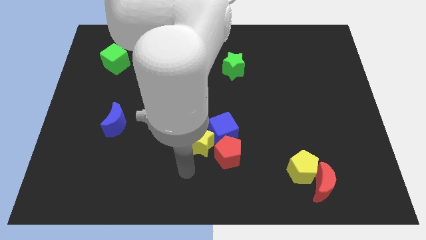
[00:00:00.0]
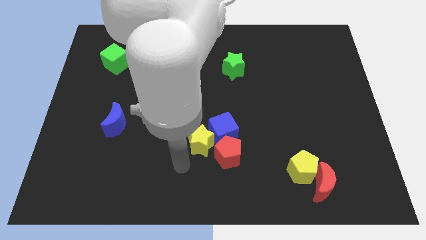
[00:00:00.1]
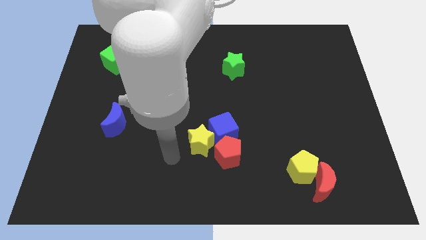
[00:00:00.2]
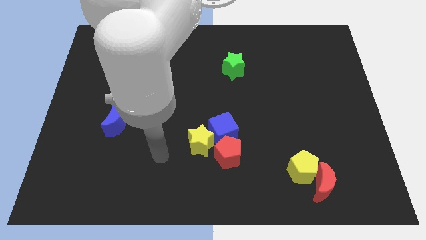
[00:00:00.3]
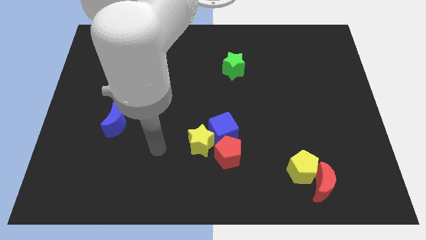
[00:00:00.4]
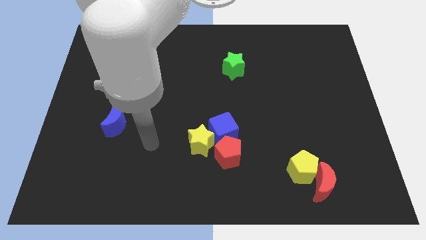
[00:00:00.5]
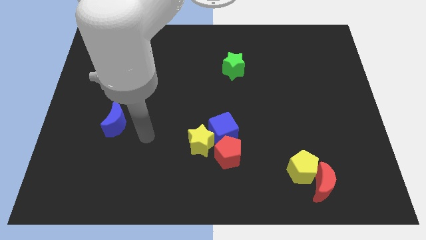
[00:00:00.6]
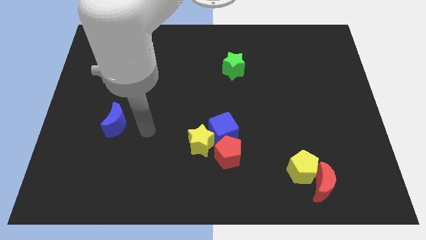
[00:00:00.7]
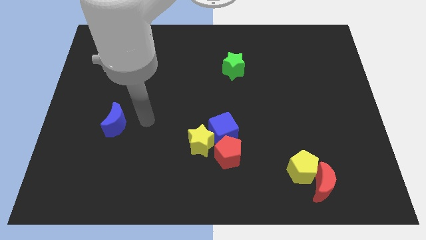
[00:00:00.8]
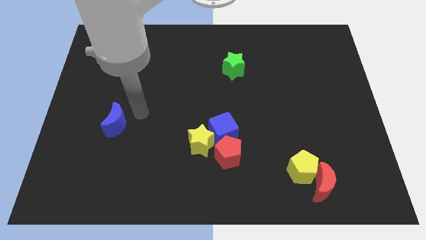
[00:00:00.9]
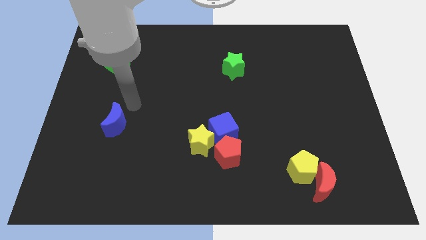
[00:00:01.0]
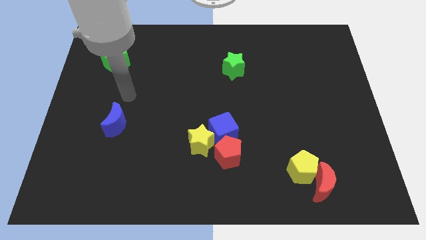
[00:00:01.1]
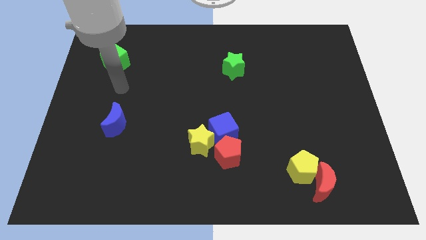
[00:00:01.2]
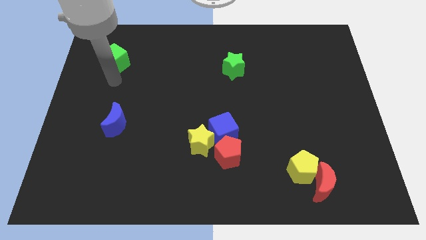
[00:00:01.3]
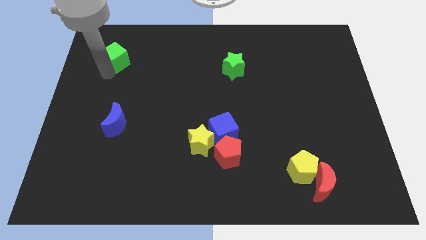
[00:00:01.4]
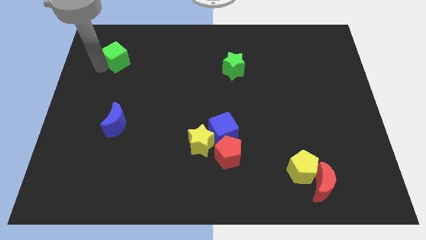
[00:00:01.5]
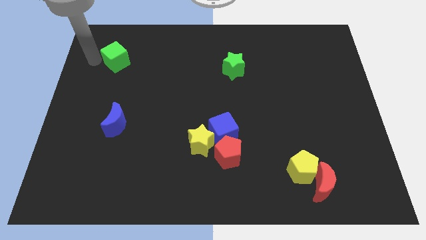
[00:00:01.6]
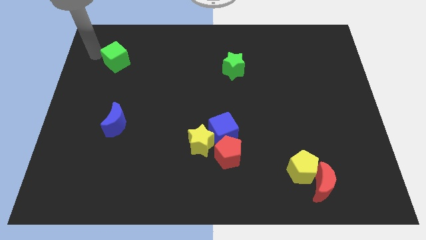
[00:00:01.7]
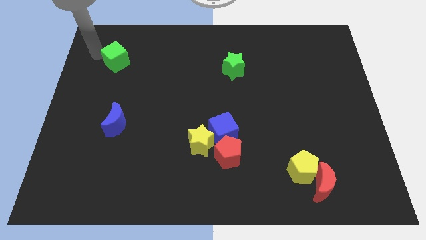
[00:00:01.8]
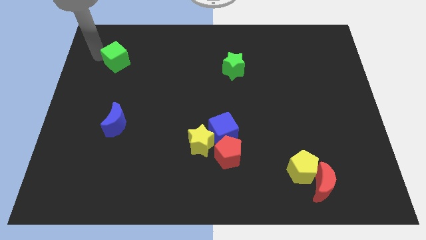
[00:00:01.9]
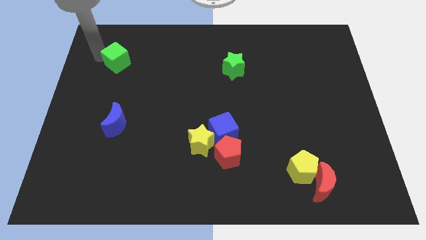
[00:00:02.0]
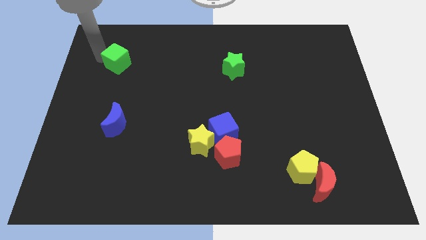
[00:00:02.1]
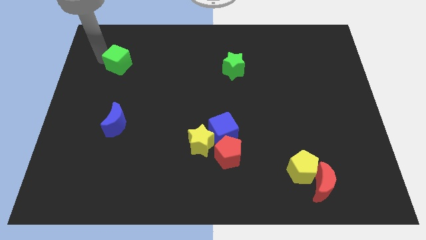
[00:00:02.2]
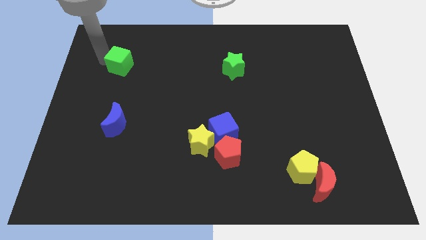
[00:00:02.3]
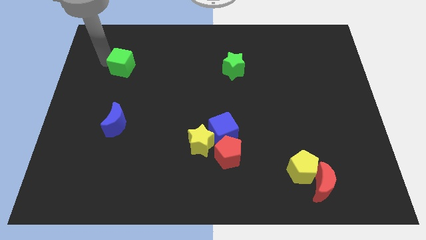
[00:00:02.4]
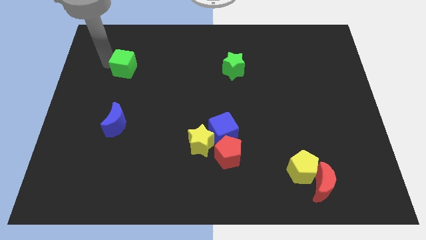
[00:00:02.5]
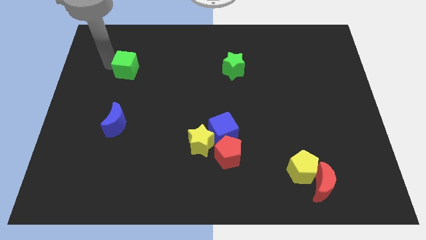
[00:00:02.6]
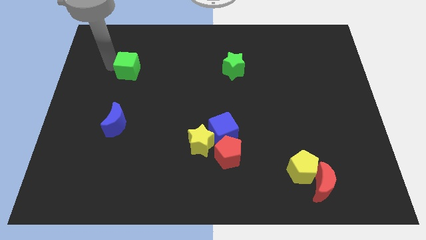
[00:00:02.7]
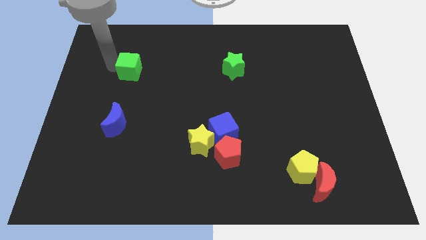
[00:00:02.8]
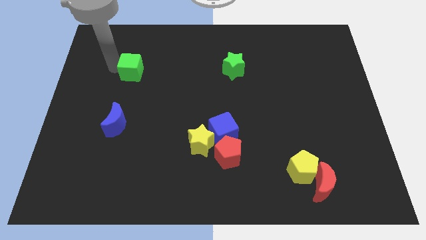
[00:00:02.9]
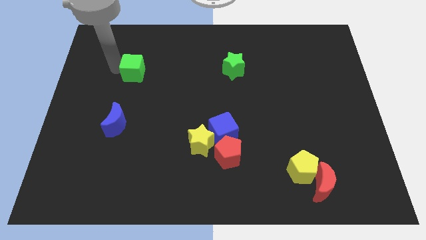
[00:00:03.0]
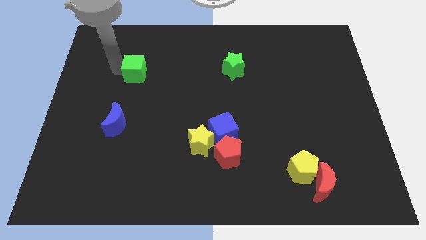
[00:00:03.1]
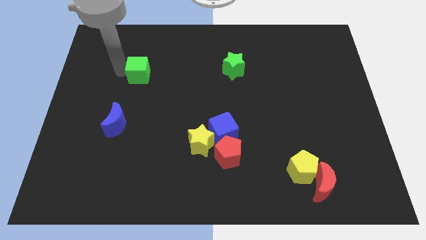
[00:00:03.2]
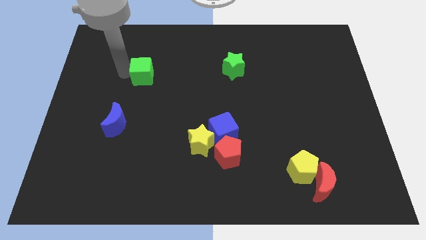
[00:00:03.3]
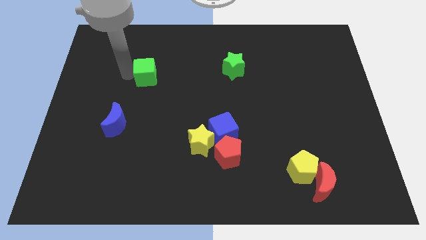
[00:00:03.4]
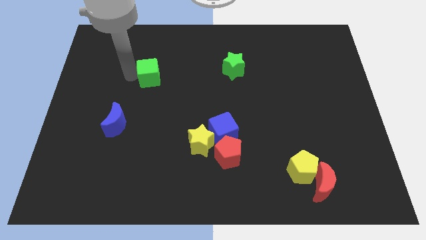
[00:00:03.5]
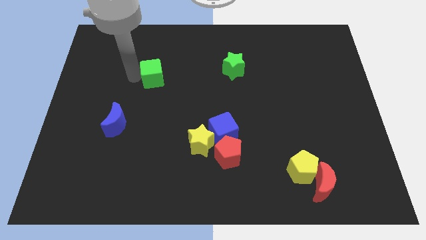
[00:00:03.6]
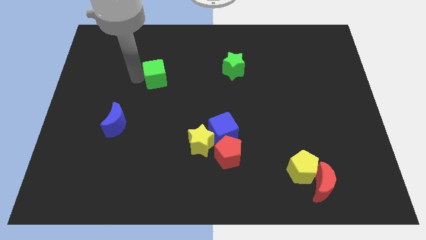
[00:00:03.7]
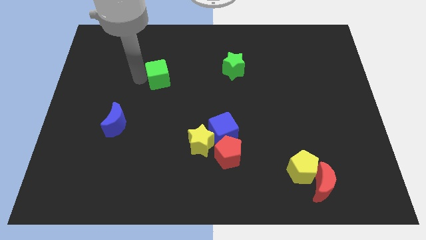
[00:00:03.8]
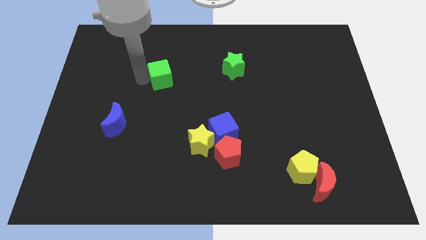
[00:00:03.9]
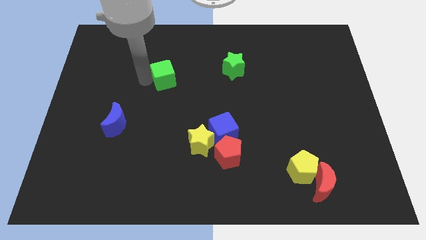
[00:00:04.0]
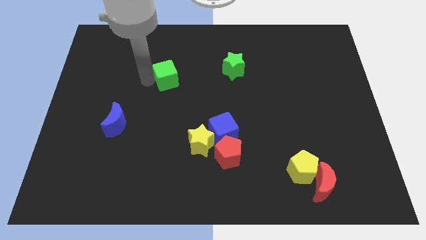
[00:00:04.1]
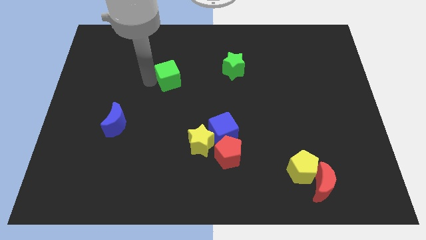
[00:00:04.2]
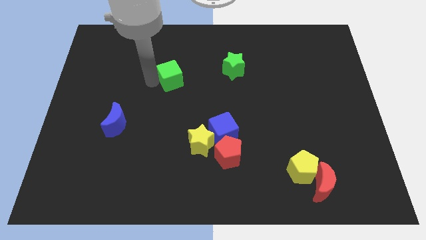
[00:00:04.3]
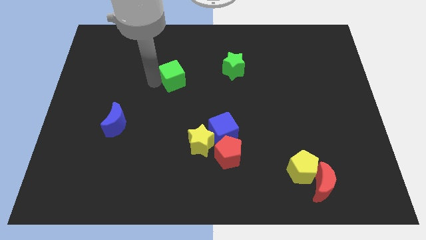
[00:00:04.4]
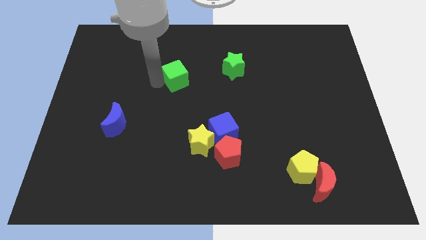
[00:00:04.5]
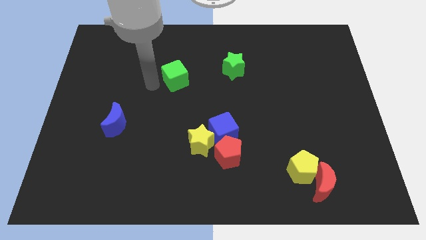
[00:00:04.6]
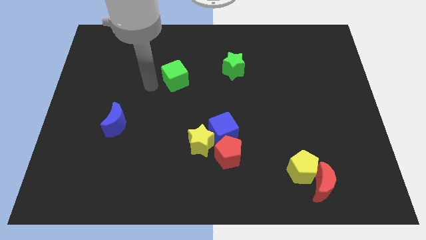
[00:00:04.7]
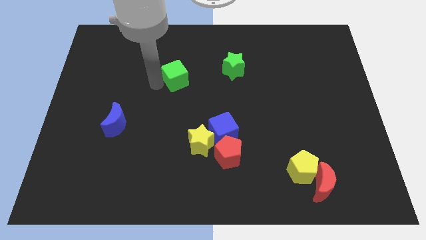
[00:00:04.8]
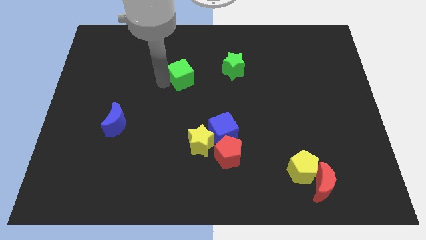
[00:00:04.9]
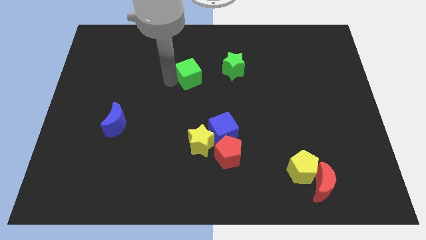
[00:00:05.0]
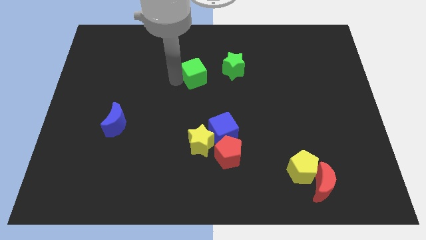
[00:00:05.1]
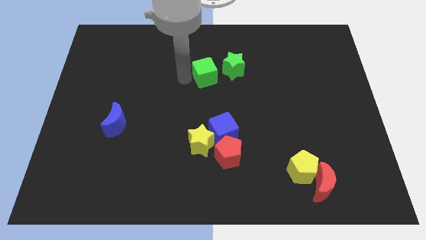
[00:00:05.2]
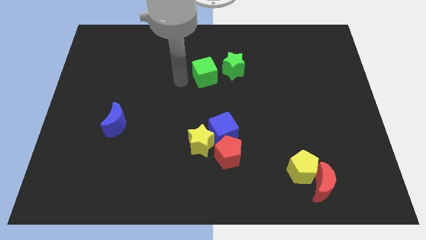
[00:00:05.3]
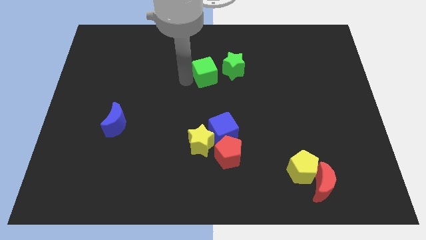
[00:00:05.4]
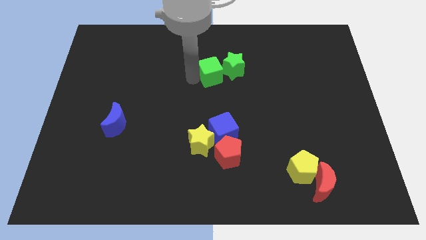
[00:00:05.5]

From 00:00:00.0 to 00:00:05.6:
slide the green cube next to the green star

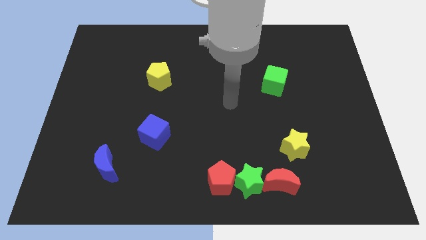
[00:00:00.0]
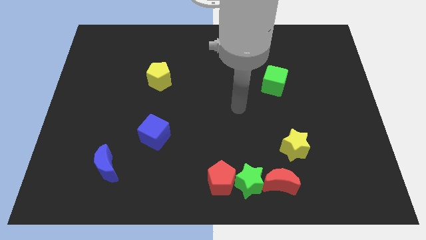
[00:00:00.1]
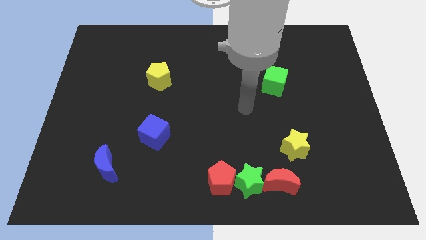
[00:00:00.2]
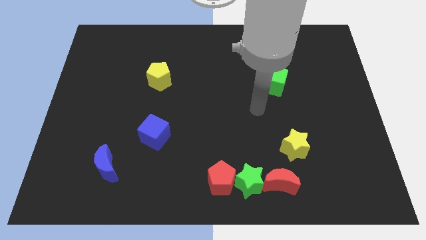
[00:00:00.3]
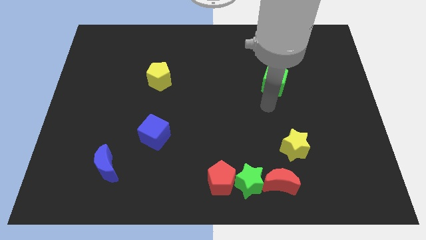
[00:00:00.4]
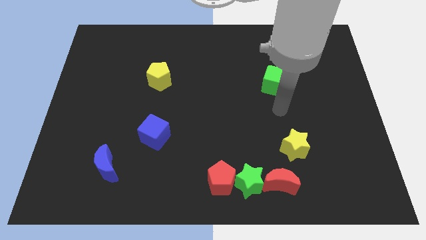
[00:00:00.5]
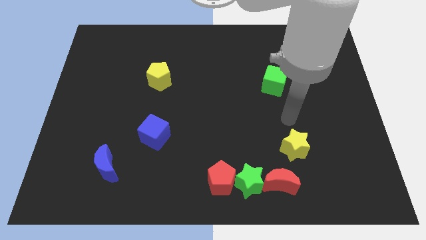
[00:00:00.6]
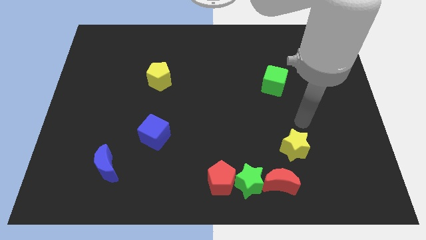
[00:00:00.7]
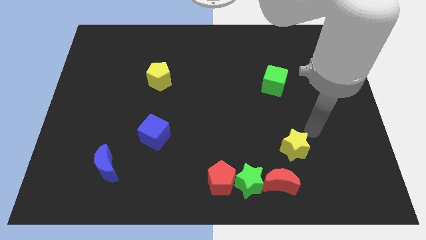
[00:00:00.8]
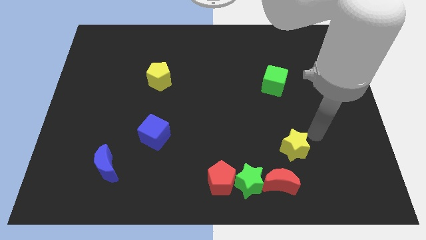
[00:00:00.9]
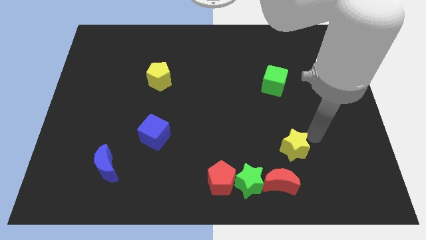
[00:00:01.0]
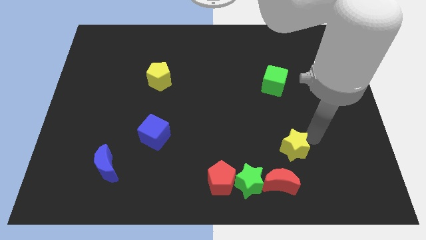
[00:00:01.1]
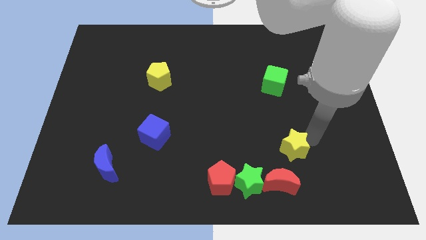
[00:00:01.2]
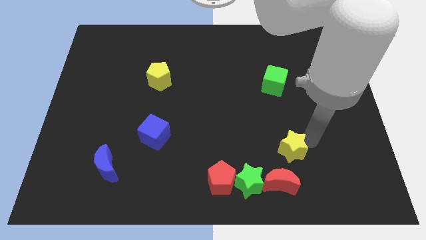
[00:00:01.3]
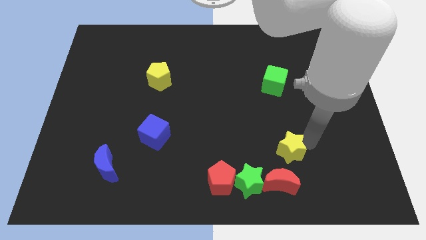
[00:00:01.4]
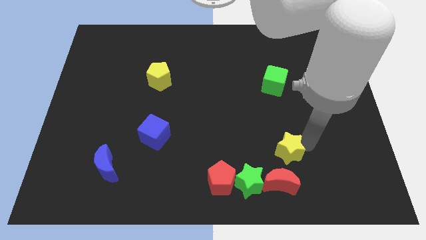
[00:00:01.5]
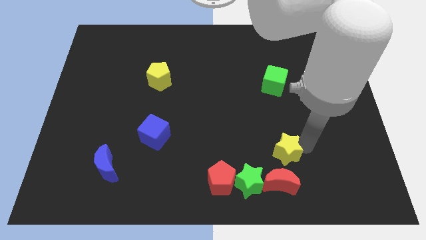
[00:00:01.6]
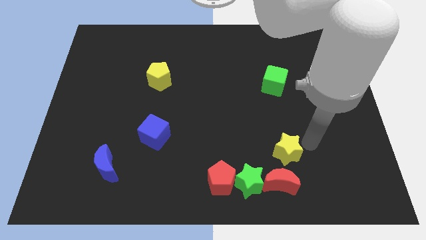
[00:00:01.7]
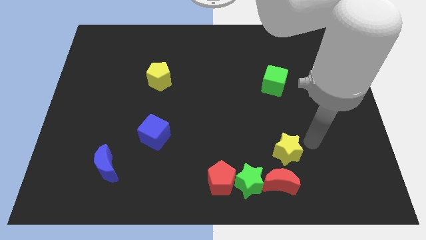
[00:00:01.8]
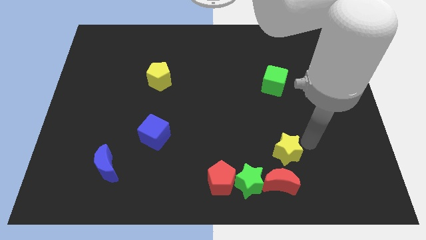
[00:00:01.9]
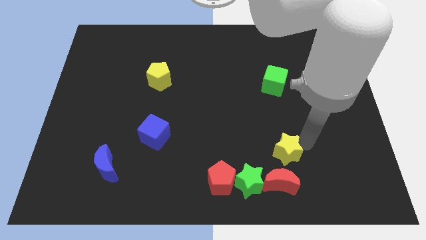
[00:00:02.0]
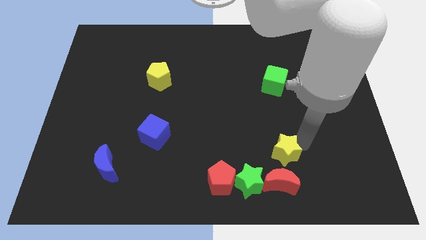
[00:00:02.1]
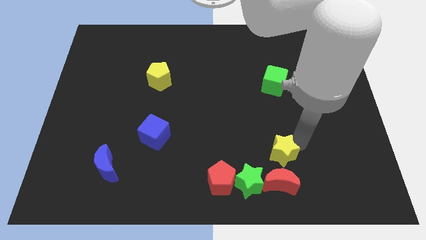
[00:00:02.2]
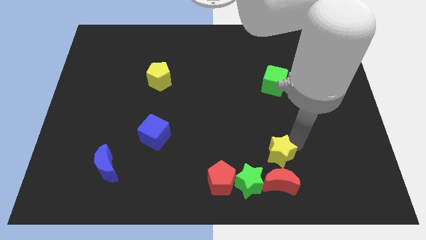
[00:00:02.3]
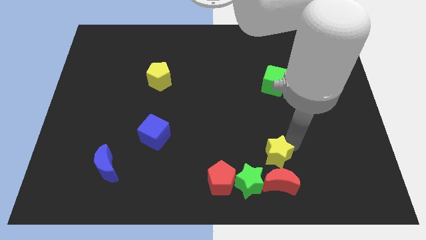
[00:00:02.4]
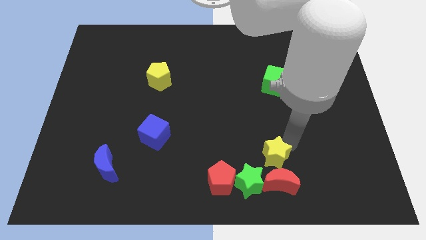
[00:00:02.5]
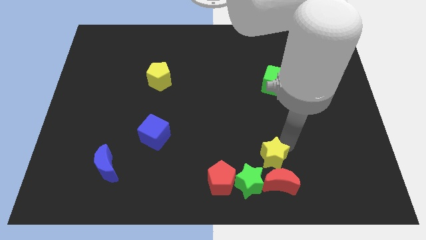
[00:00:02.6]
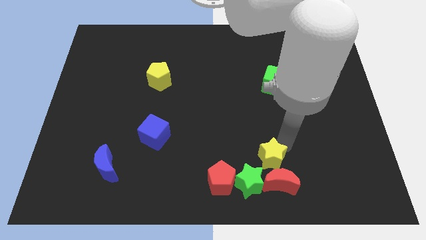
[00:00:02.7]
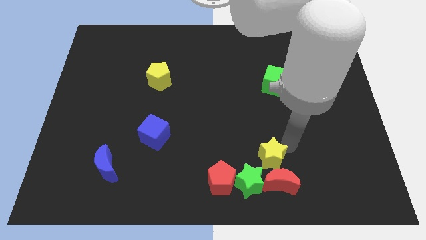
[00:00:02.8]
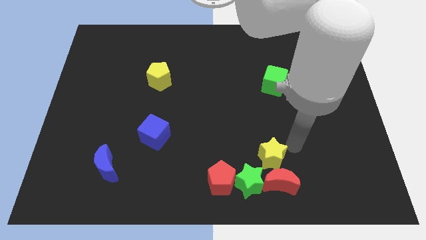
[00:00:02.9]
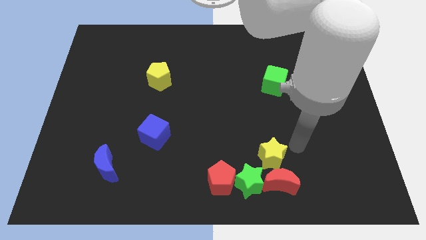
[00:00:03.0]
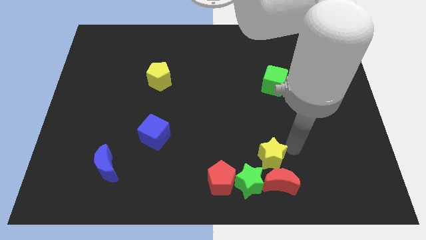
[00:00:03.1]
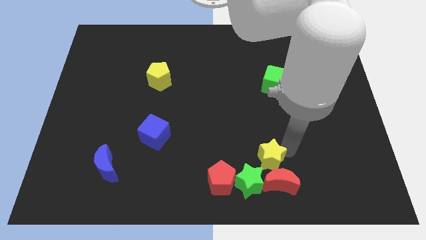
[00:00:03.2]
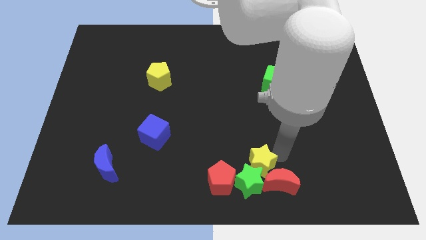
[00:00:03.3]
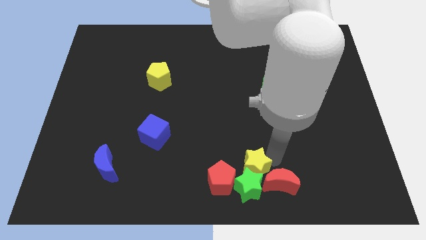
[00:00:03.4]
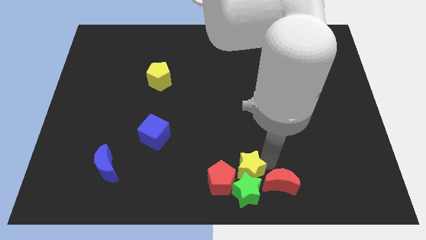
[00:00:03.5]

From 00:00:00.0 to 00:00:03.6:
move the yellow star to the red pentagon
